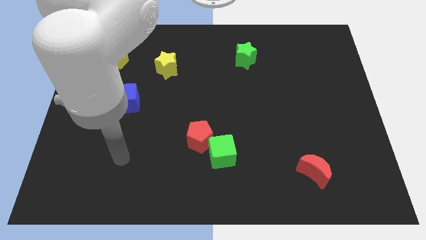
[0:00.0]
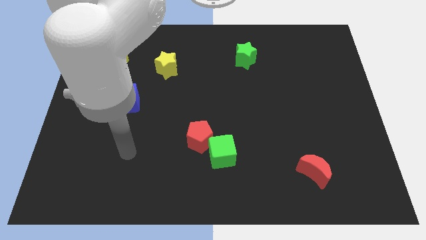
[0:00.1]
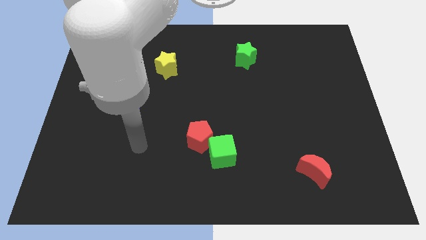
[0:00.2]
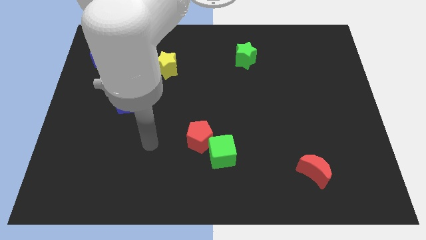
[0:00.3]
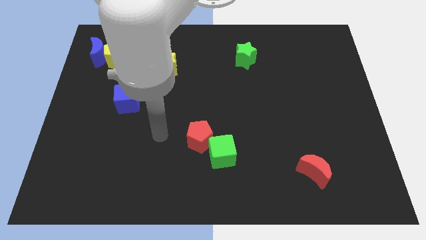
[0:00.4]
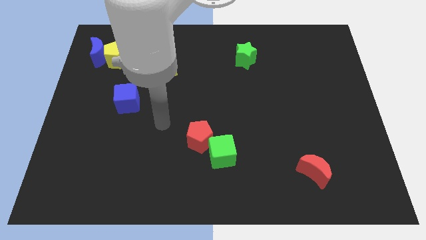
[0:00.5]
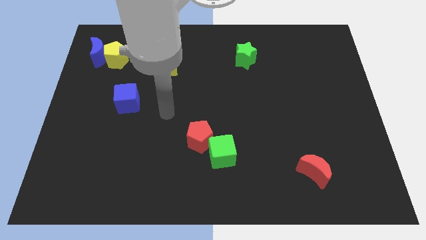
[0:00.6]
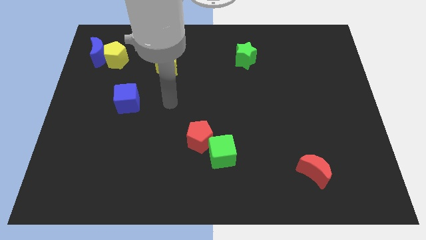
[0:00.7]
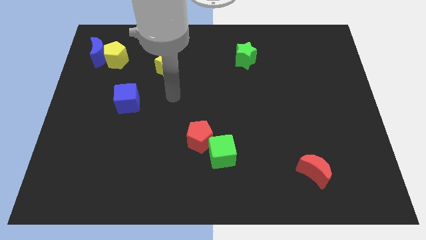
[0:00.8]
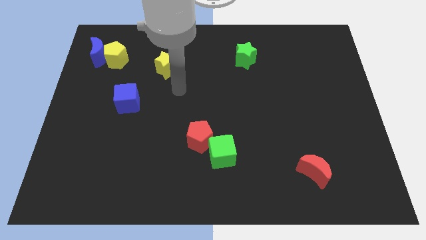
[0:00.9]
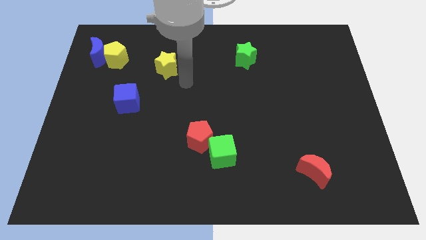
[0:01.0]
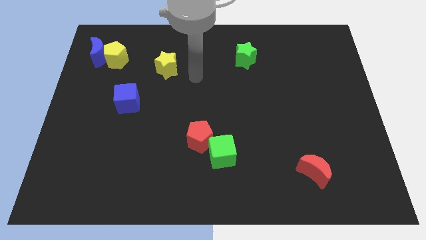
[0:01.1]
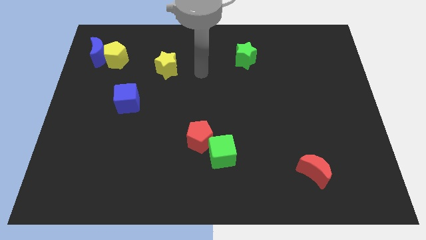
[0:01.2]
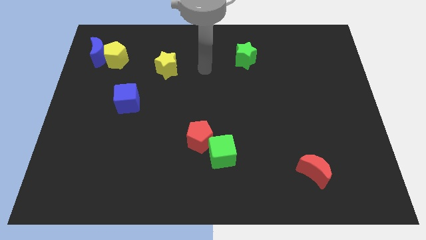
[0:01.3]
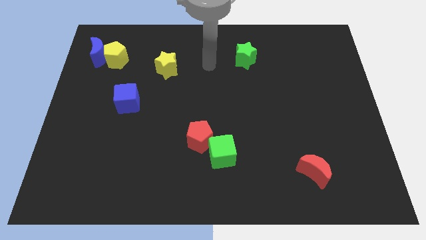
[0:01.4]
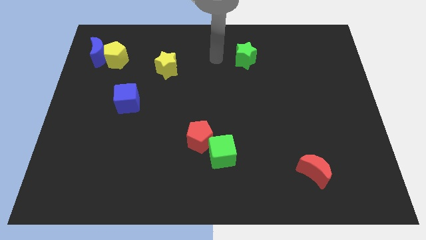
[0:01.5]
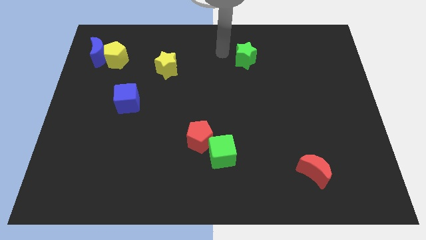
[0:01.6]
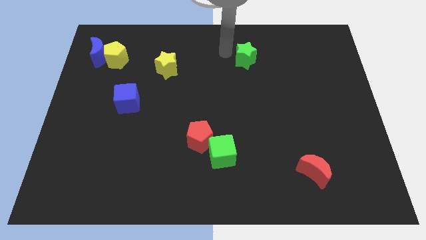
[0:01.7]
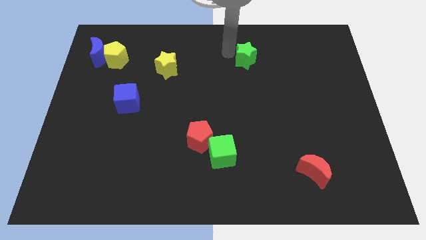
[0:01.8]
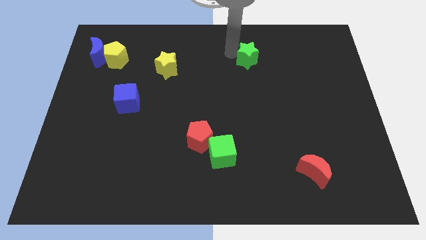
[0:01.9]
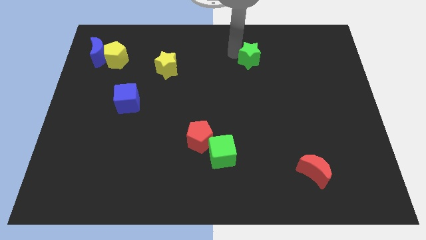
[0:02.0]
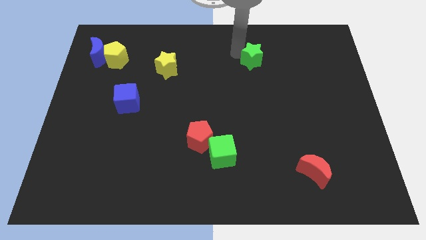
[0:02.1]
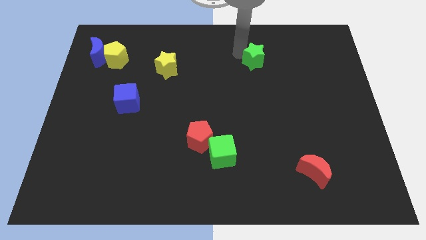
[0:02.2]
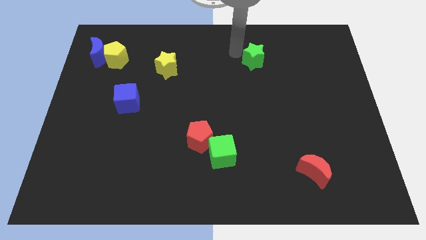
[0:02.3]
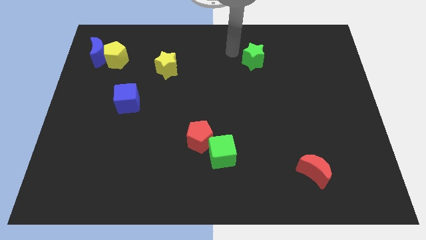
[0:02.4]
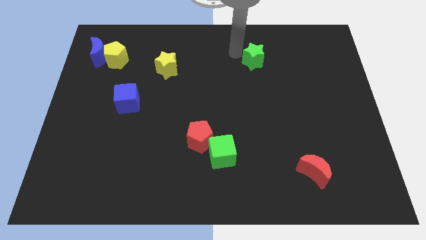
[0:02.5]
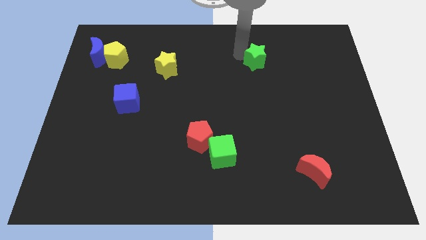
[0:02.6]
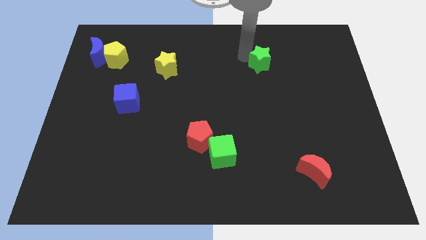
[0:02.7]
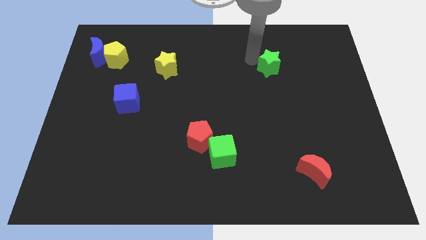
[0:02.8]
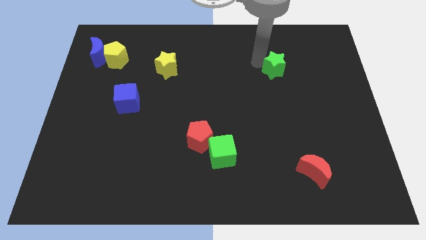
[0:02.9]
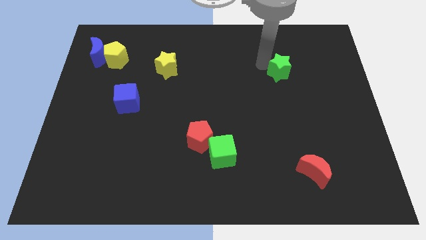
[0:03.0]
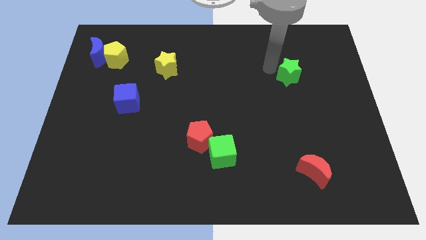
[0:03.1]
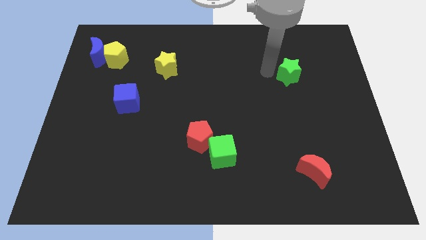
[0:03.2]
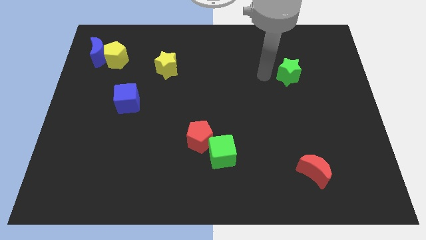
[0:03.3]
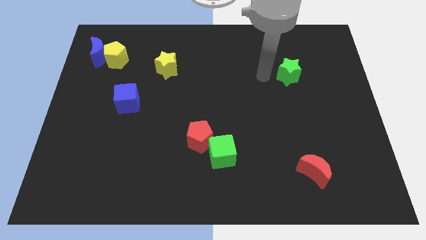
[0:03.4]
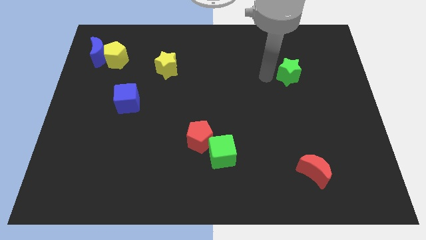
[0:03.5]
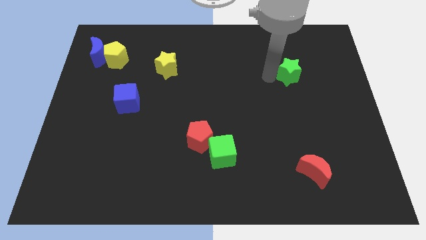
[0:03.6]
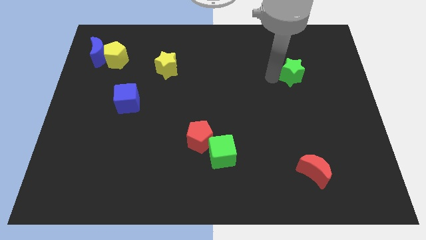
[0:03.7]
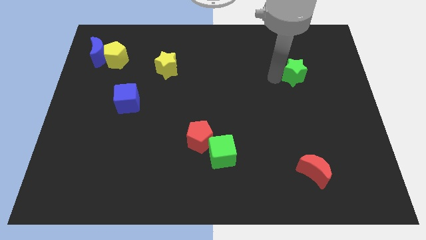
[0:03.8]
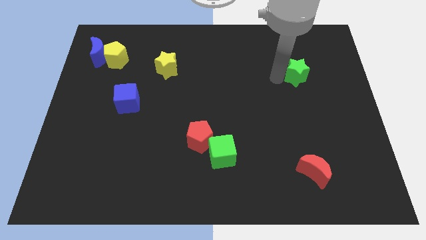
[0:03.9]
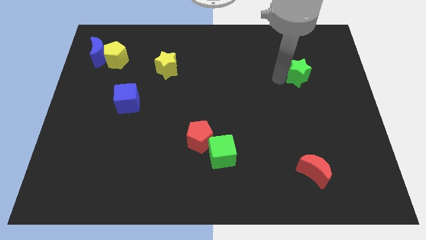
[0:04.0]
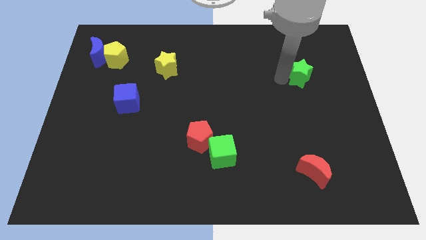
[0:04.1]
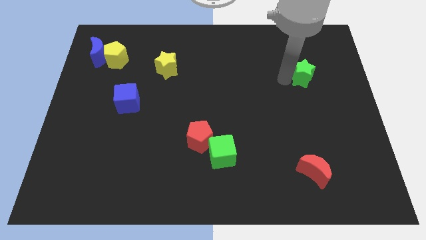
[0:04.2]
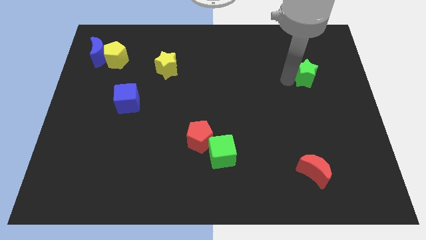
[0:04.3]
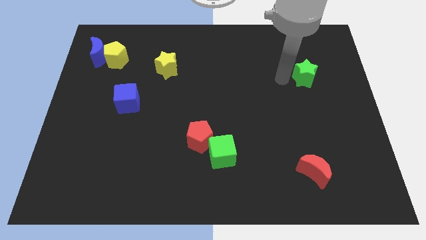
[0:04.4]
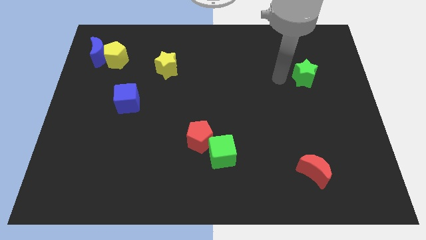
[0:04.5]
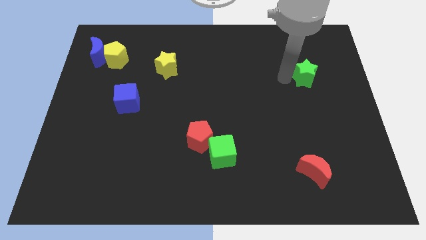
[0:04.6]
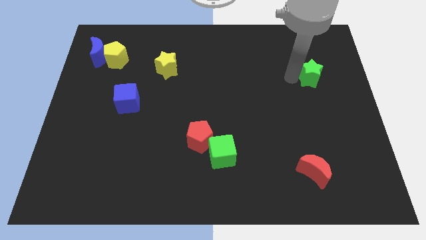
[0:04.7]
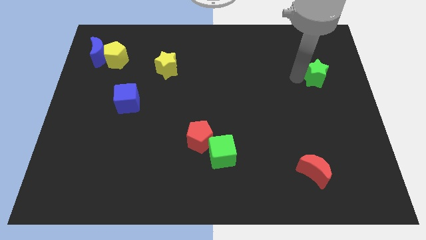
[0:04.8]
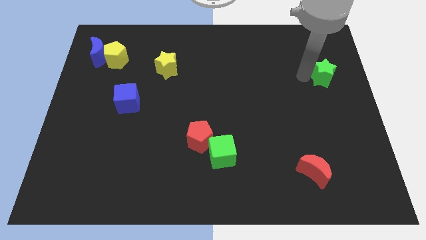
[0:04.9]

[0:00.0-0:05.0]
slide the green star to the right side of the board

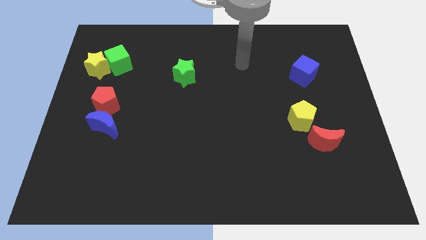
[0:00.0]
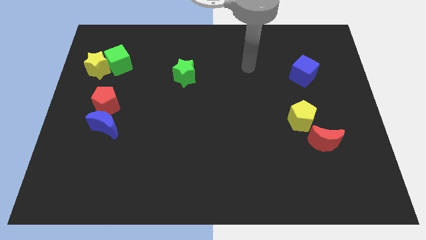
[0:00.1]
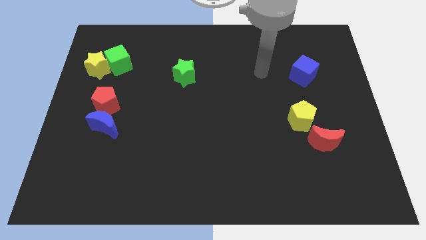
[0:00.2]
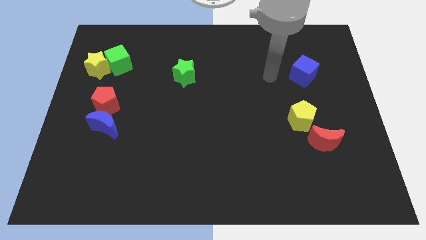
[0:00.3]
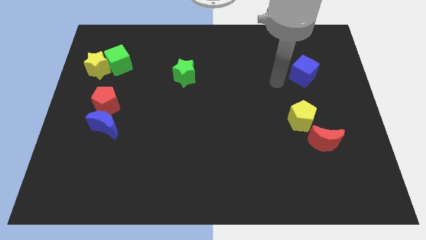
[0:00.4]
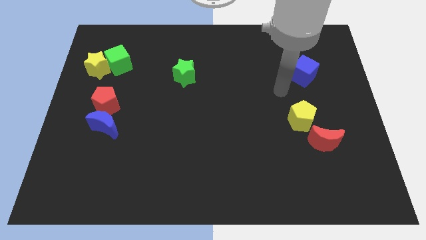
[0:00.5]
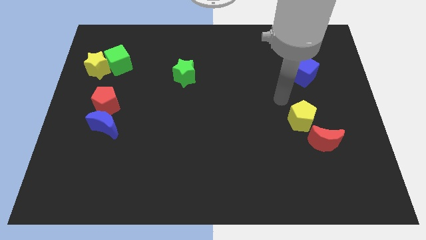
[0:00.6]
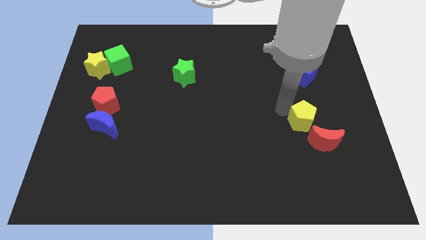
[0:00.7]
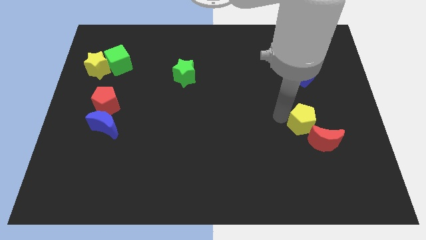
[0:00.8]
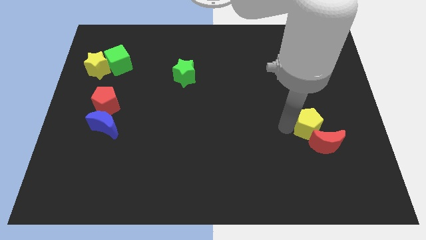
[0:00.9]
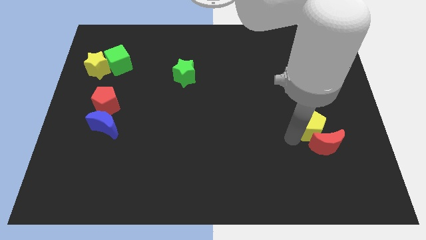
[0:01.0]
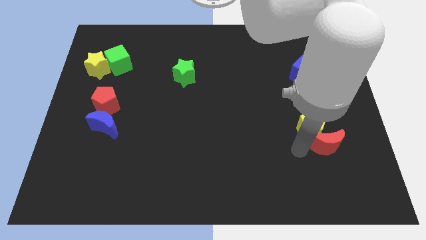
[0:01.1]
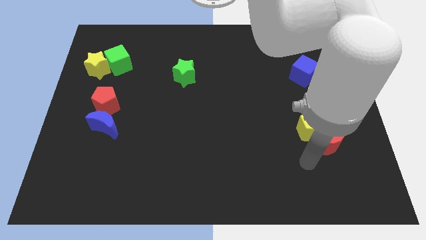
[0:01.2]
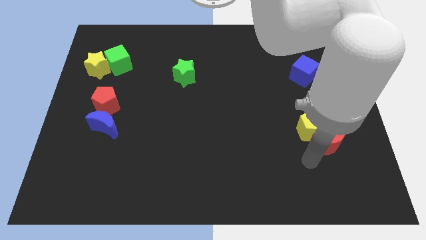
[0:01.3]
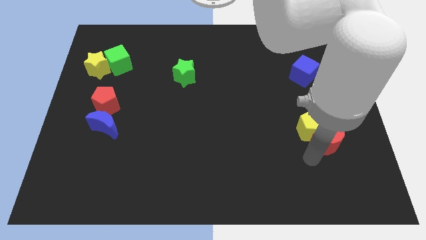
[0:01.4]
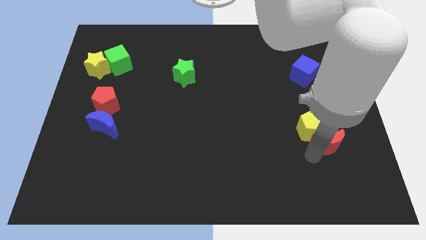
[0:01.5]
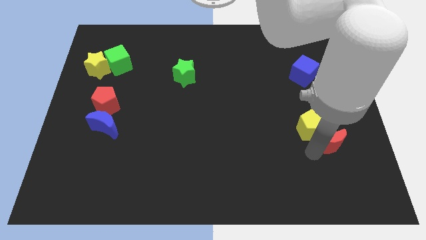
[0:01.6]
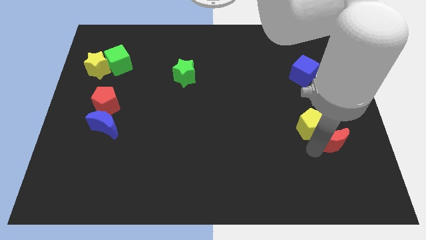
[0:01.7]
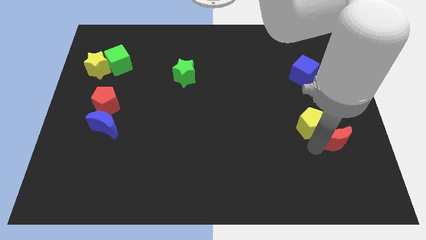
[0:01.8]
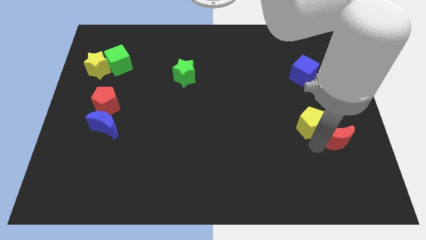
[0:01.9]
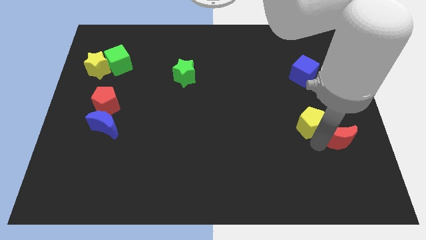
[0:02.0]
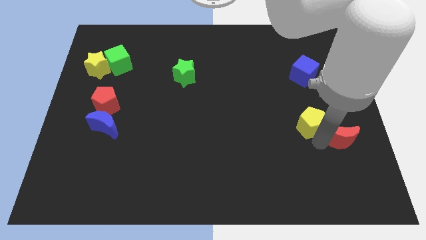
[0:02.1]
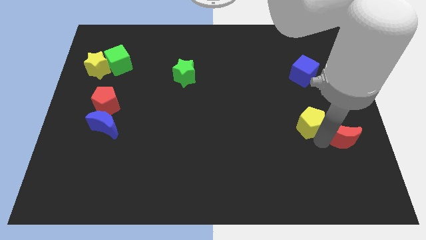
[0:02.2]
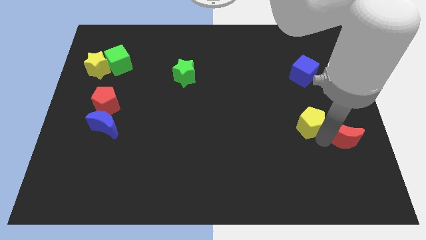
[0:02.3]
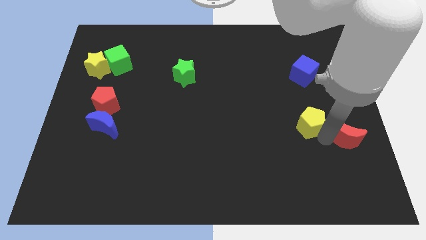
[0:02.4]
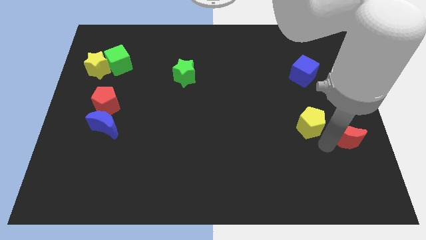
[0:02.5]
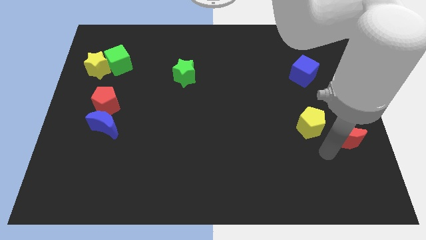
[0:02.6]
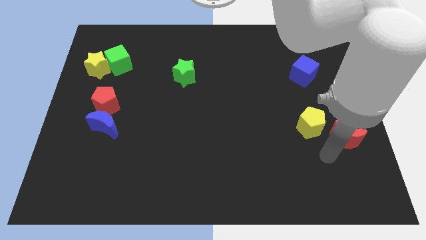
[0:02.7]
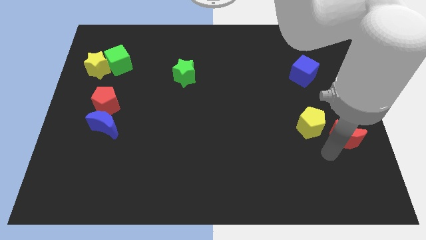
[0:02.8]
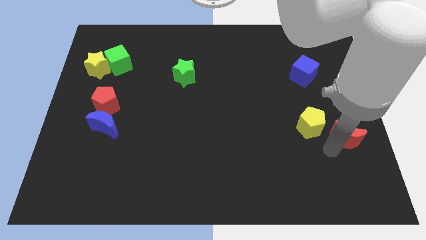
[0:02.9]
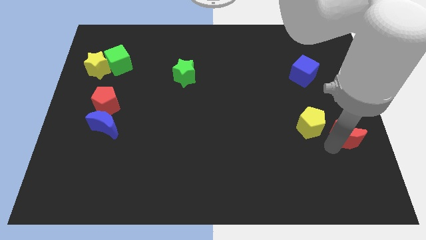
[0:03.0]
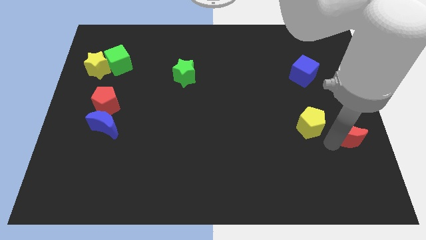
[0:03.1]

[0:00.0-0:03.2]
move the red moon to the right side of the board
